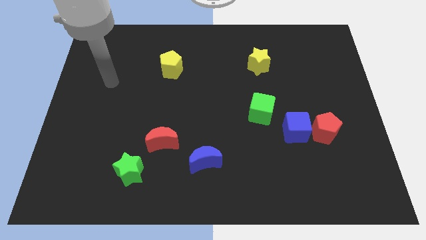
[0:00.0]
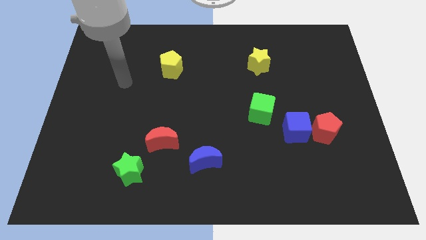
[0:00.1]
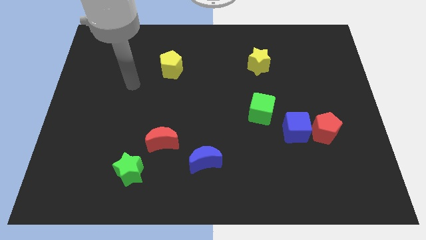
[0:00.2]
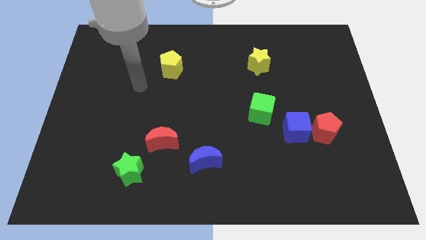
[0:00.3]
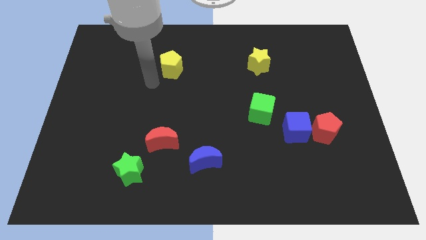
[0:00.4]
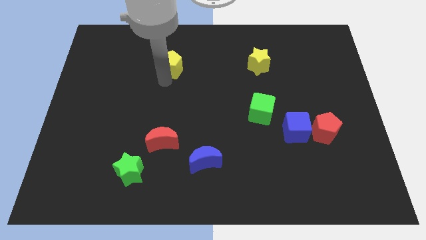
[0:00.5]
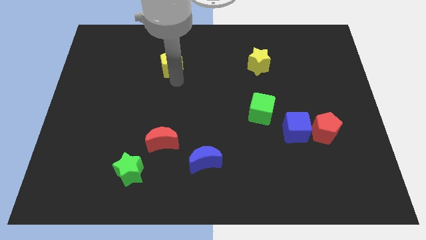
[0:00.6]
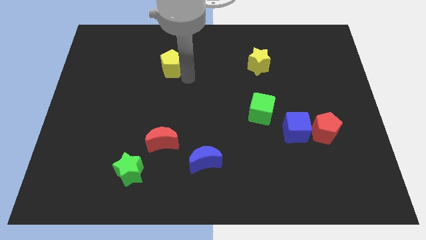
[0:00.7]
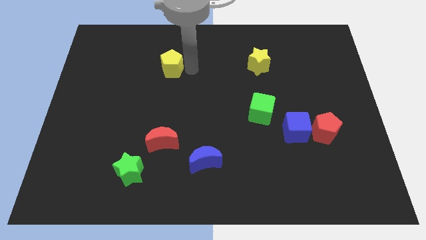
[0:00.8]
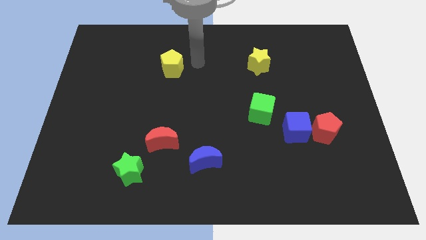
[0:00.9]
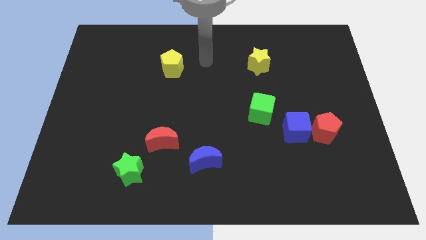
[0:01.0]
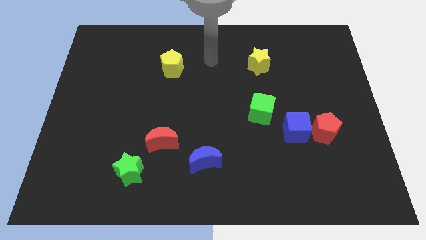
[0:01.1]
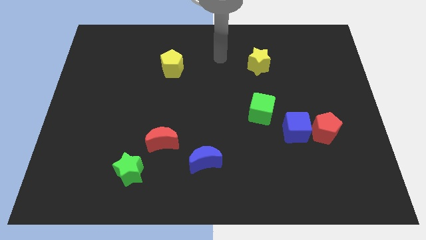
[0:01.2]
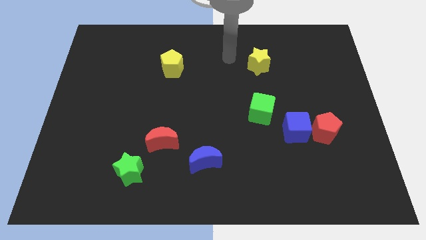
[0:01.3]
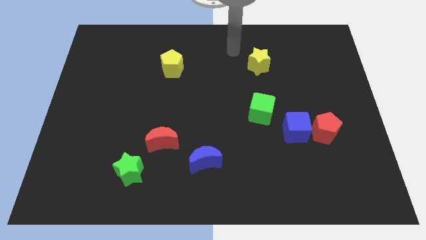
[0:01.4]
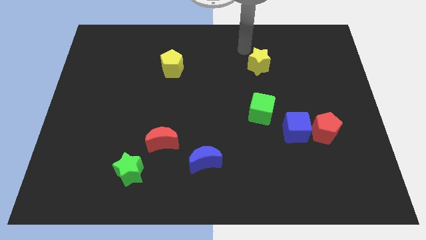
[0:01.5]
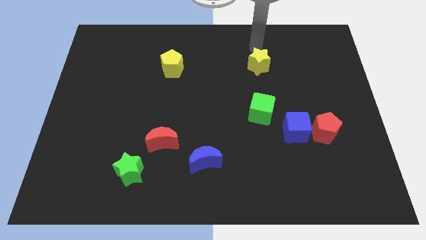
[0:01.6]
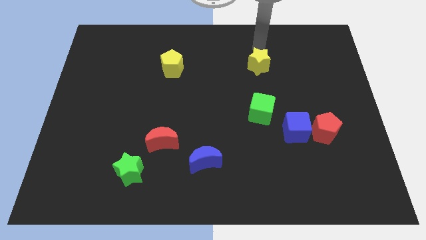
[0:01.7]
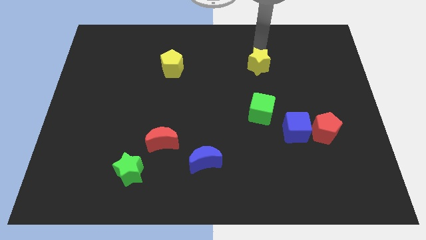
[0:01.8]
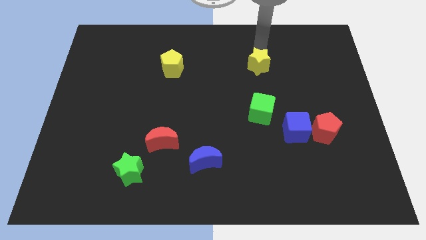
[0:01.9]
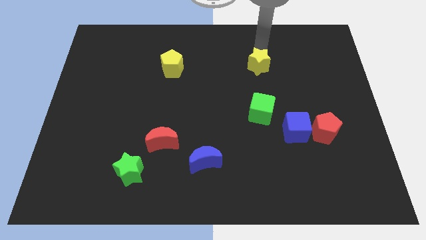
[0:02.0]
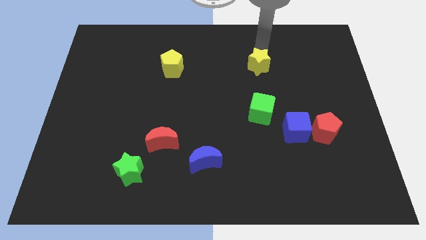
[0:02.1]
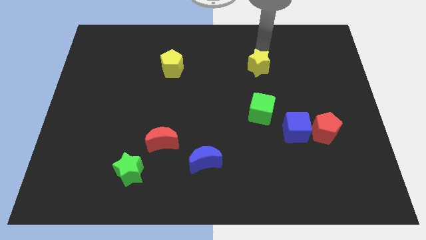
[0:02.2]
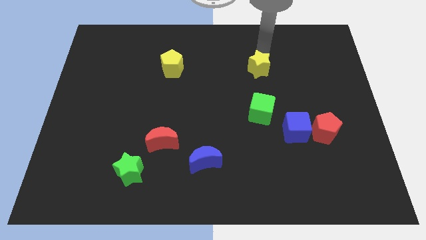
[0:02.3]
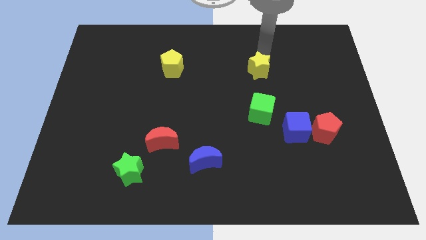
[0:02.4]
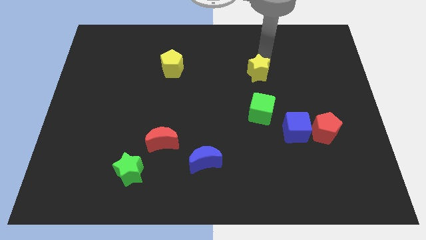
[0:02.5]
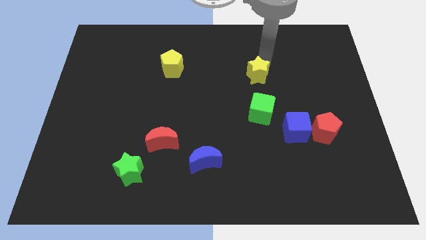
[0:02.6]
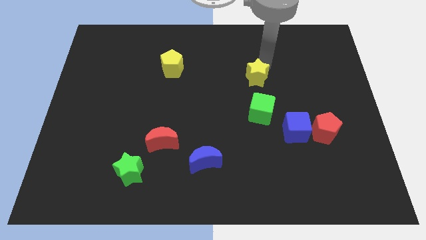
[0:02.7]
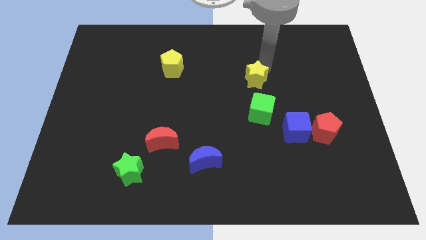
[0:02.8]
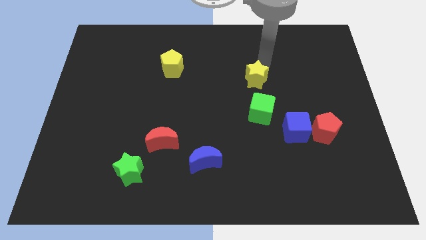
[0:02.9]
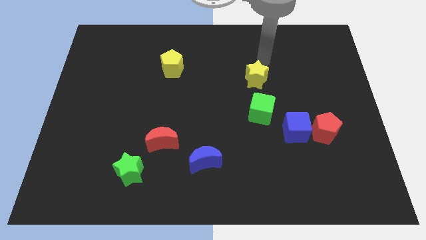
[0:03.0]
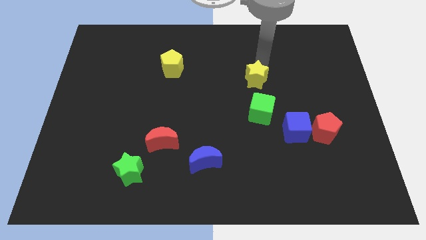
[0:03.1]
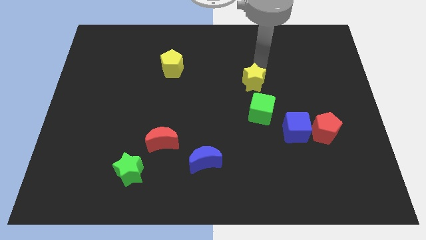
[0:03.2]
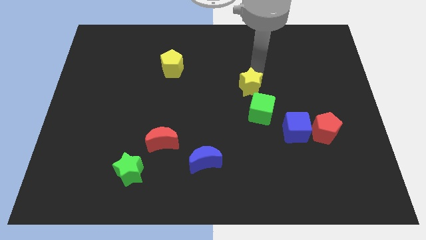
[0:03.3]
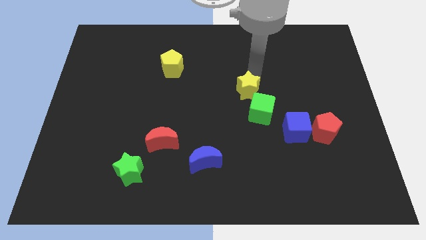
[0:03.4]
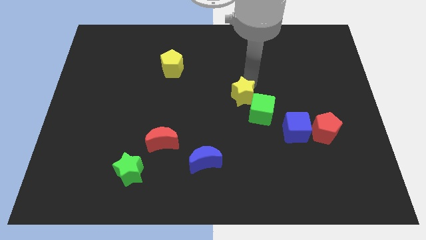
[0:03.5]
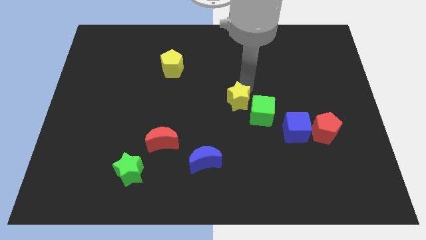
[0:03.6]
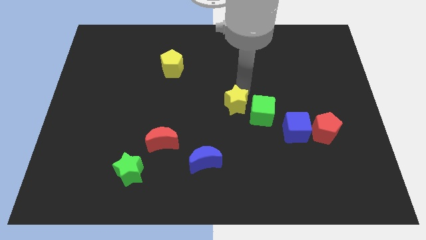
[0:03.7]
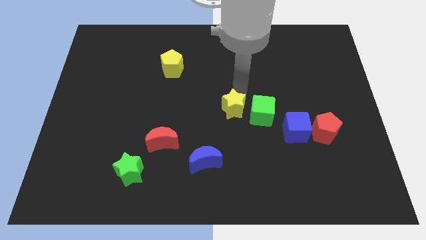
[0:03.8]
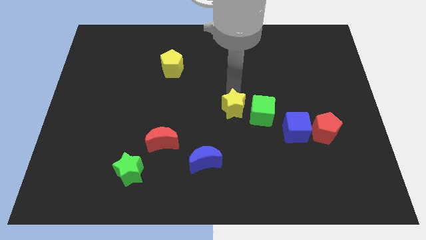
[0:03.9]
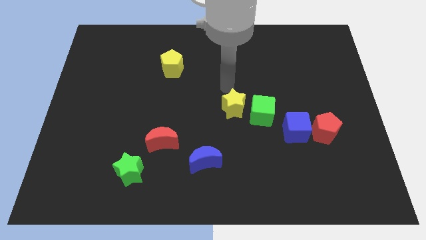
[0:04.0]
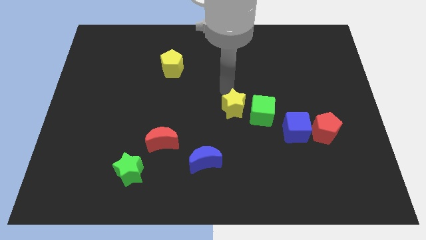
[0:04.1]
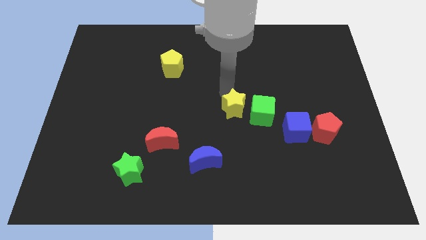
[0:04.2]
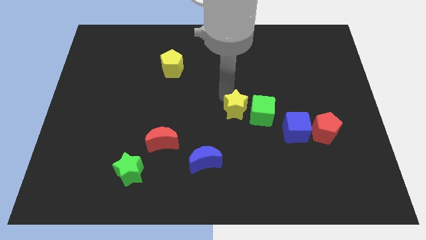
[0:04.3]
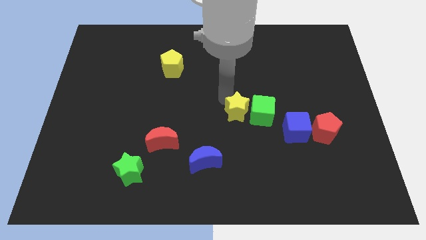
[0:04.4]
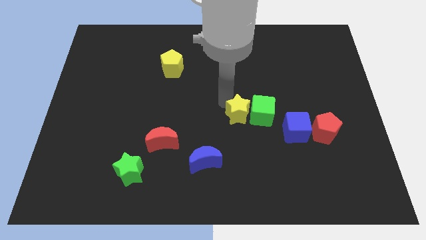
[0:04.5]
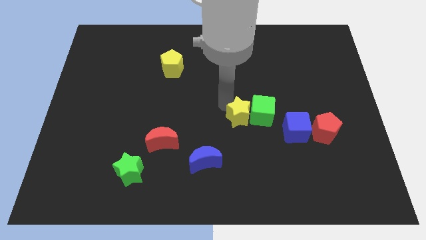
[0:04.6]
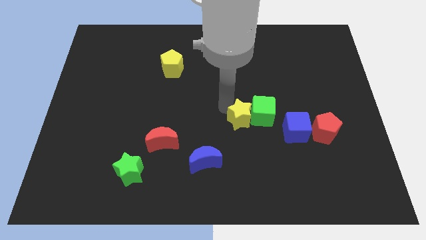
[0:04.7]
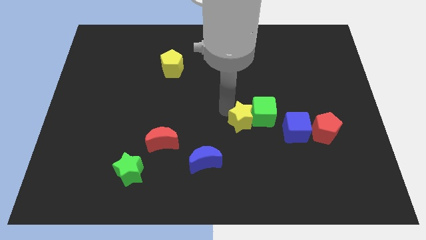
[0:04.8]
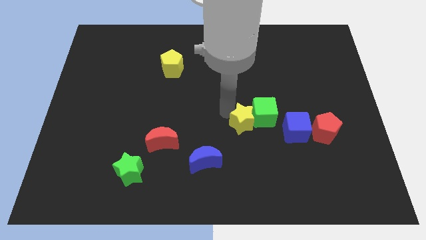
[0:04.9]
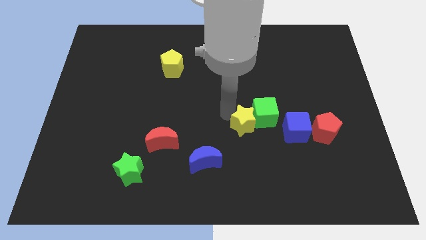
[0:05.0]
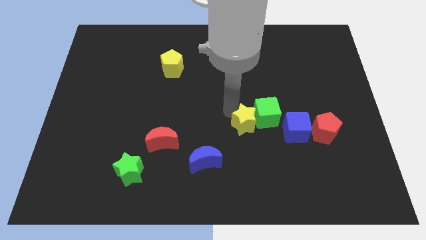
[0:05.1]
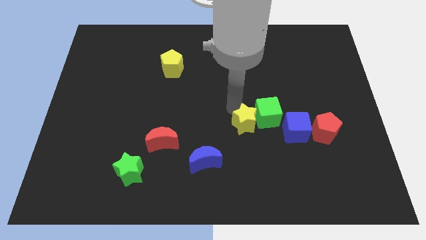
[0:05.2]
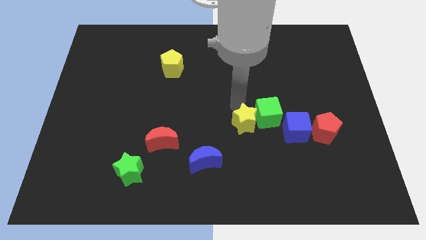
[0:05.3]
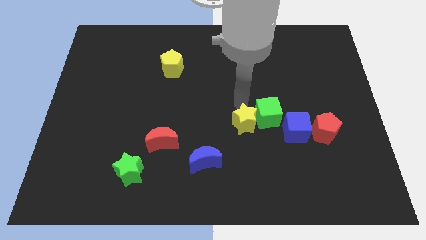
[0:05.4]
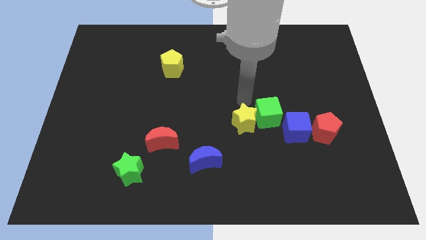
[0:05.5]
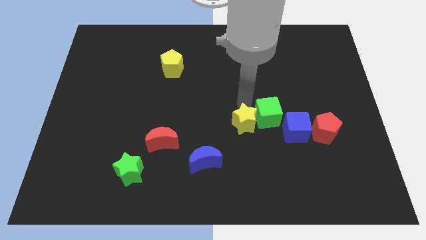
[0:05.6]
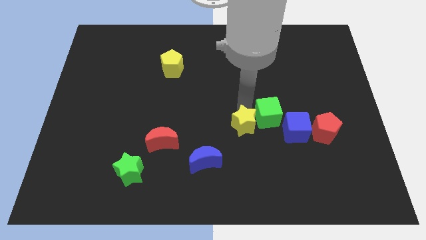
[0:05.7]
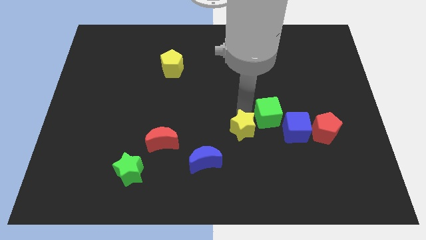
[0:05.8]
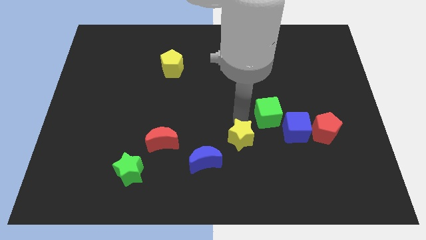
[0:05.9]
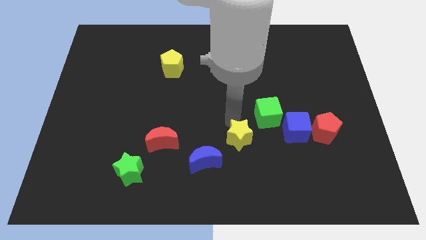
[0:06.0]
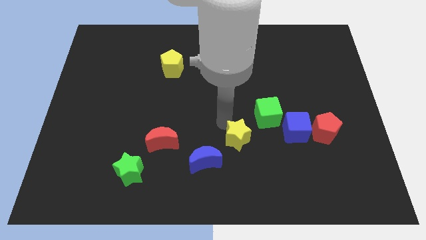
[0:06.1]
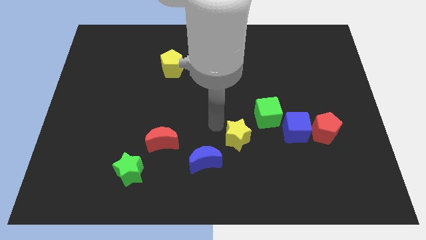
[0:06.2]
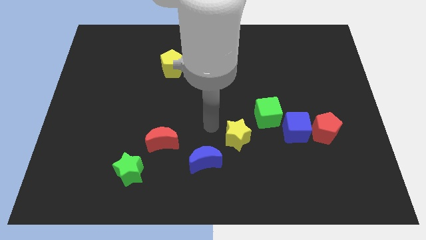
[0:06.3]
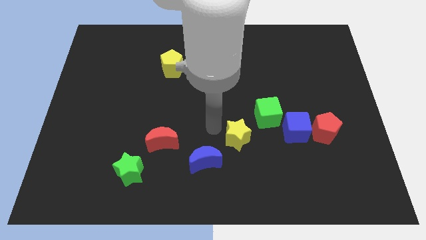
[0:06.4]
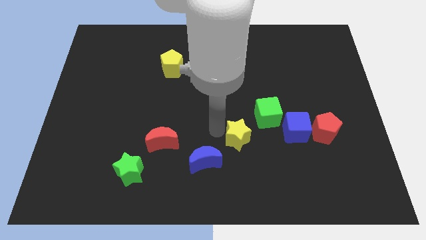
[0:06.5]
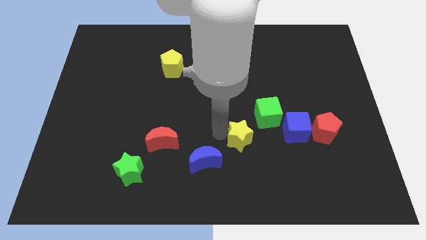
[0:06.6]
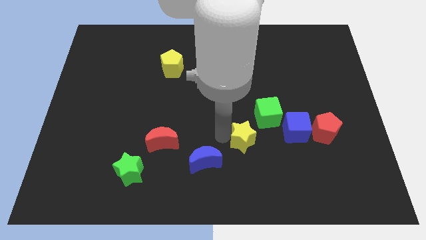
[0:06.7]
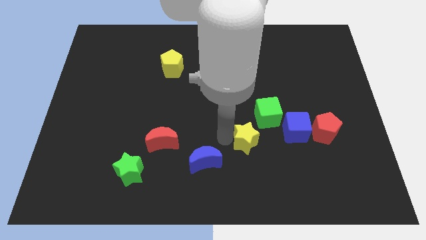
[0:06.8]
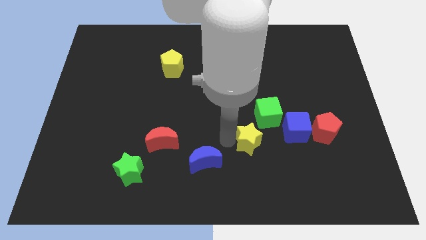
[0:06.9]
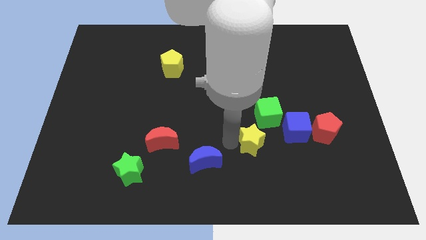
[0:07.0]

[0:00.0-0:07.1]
put the yellow star to the bottom side of the green cube

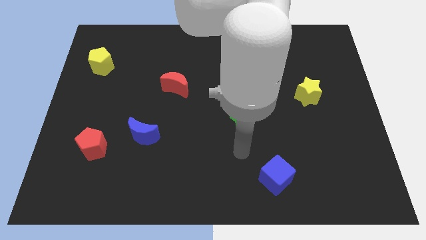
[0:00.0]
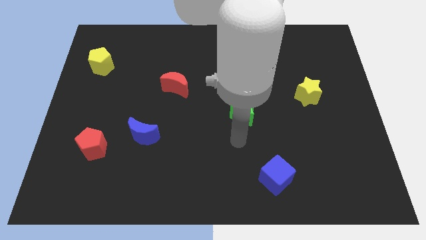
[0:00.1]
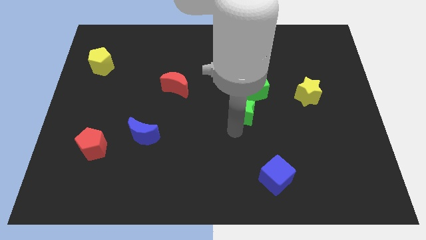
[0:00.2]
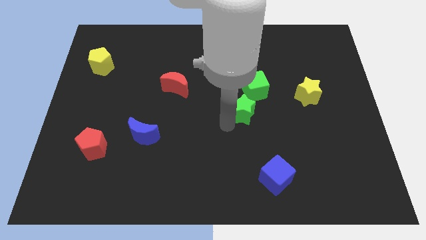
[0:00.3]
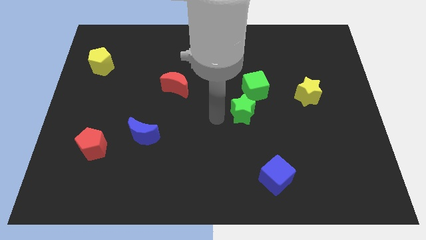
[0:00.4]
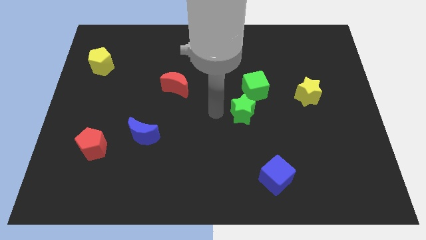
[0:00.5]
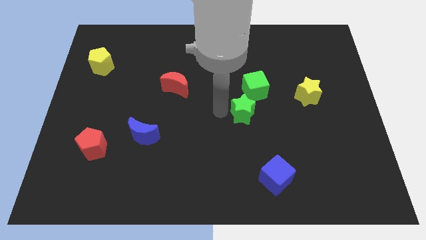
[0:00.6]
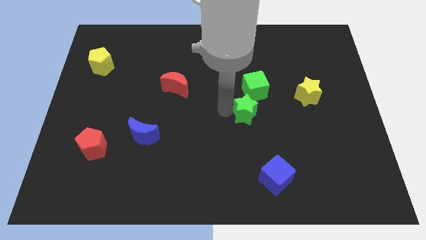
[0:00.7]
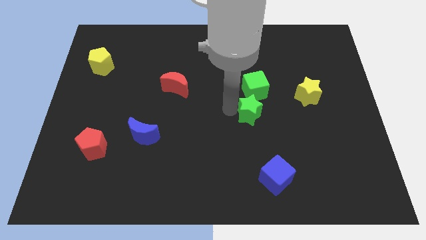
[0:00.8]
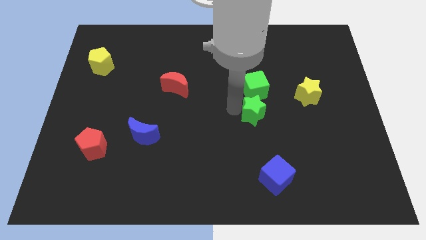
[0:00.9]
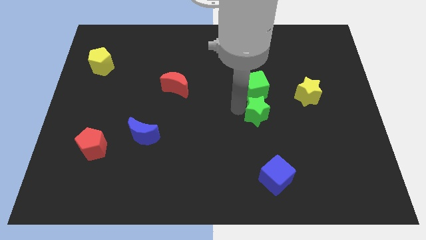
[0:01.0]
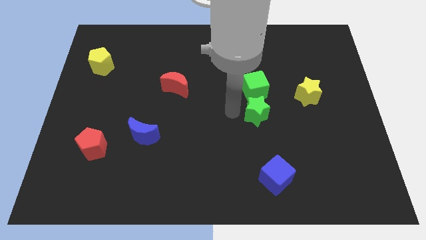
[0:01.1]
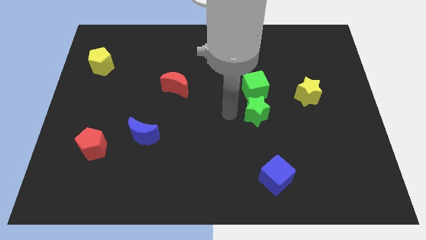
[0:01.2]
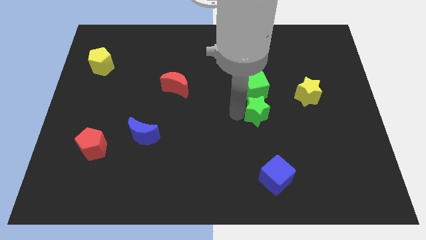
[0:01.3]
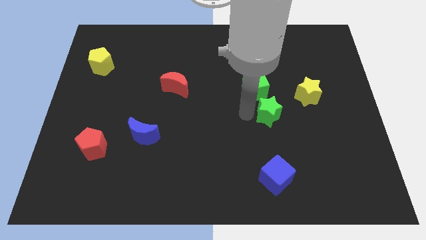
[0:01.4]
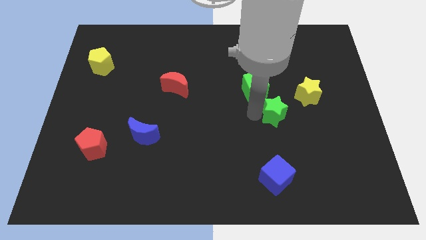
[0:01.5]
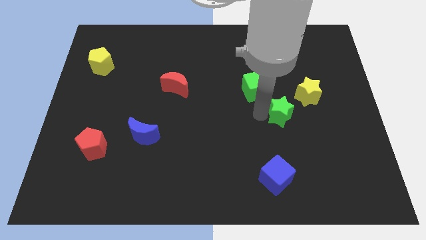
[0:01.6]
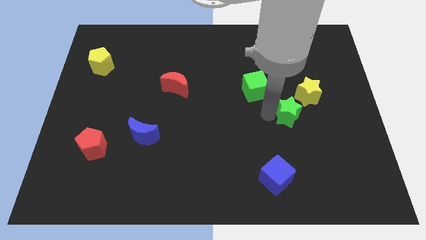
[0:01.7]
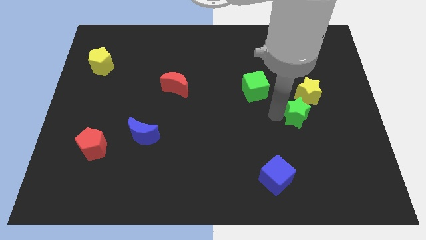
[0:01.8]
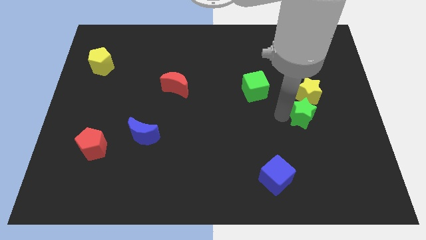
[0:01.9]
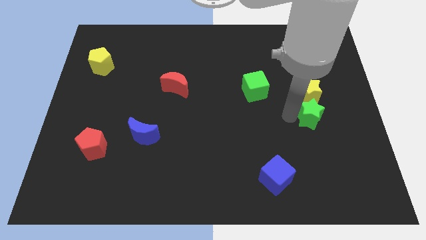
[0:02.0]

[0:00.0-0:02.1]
push the green star to the bottom right side of the yellow star
